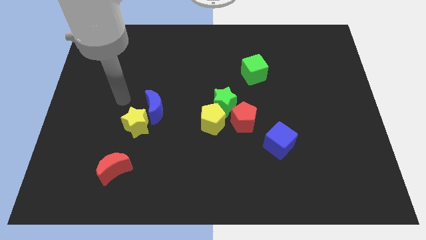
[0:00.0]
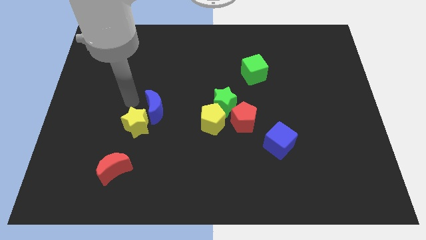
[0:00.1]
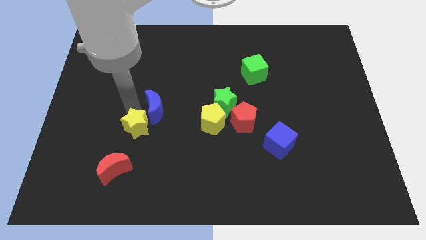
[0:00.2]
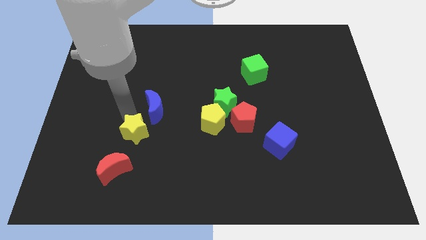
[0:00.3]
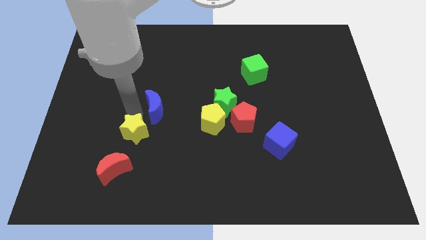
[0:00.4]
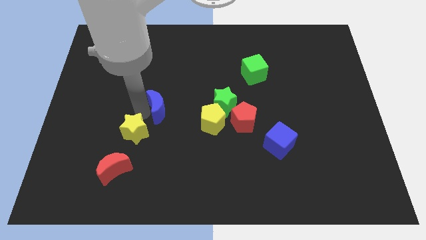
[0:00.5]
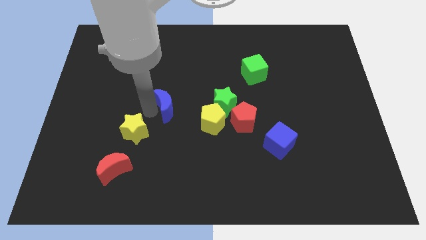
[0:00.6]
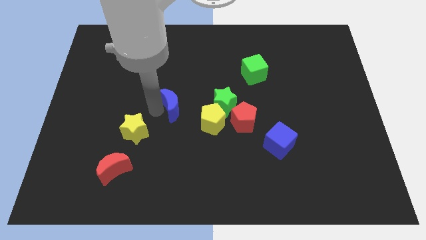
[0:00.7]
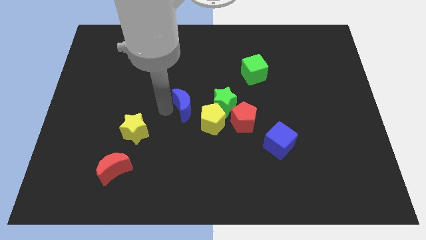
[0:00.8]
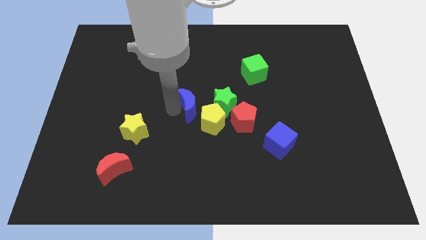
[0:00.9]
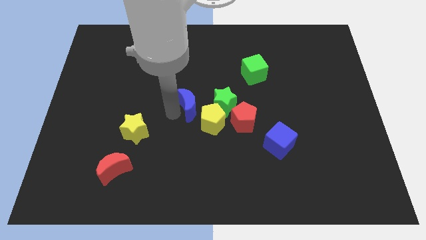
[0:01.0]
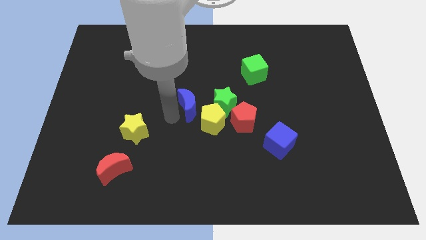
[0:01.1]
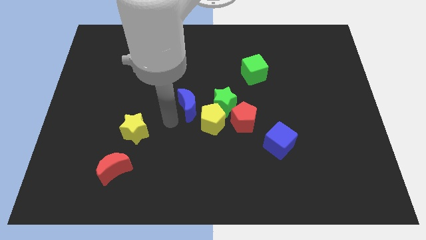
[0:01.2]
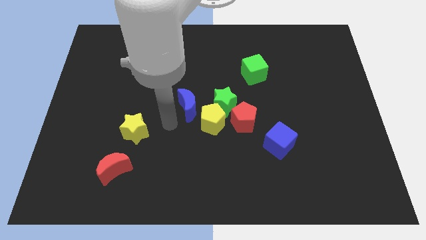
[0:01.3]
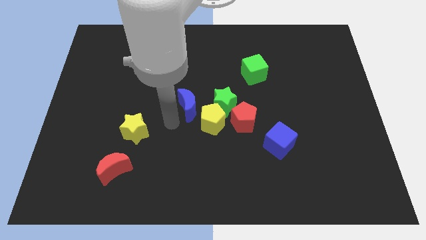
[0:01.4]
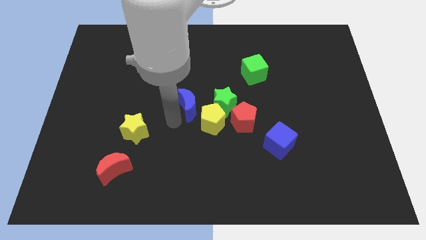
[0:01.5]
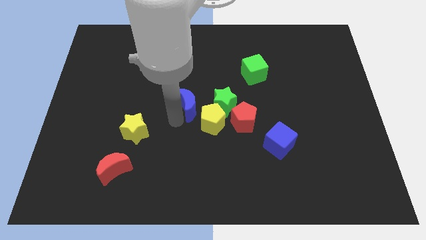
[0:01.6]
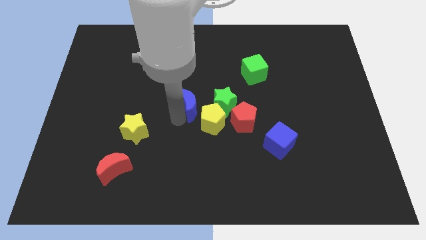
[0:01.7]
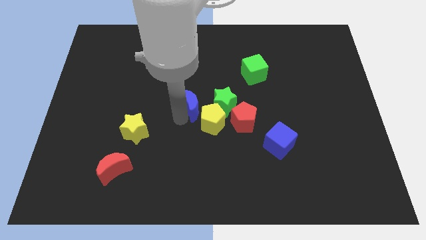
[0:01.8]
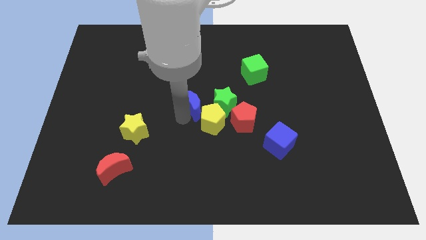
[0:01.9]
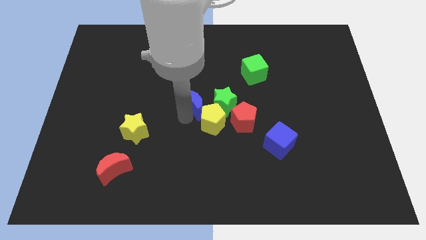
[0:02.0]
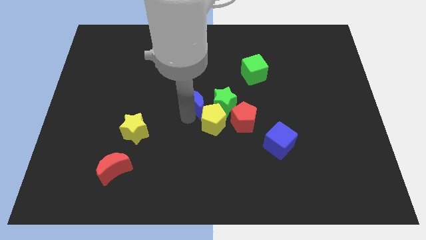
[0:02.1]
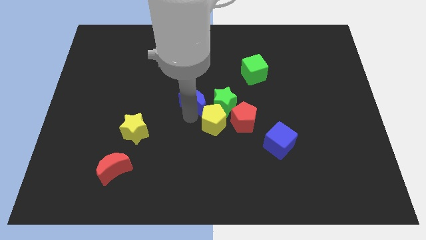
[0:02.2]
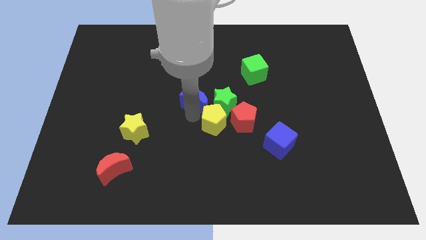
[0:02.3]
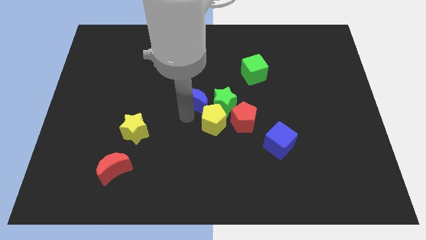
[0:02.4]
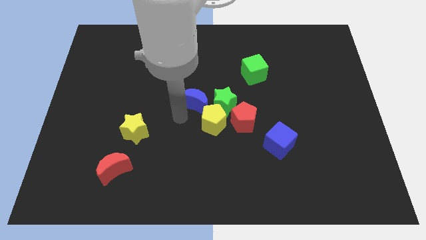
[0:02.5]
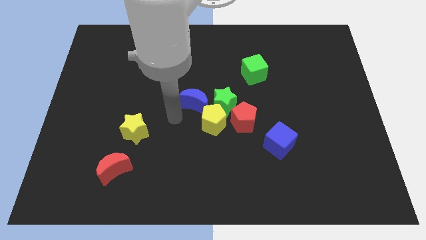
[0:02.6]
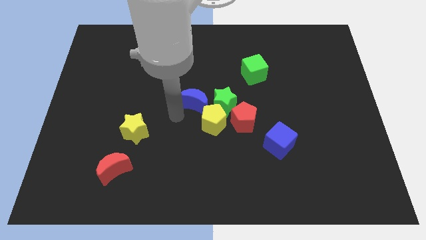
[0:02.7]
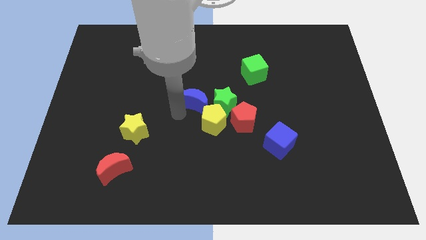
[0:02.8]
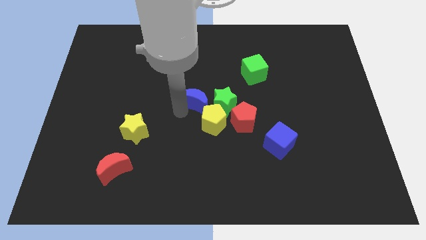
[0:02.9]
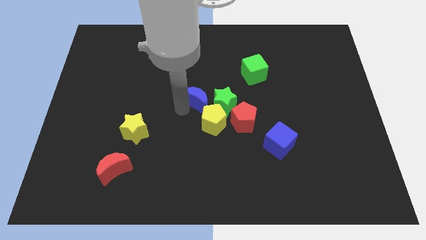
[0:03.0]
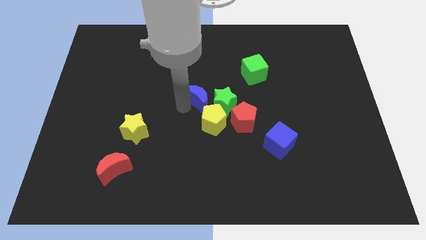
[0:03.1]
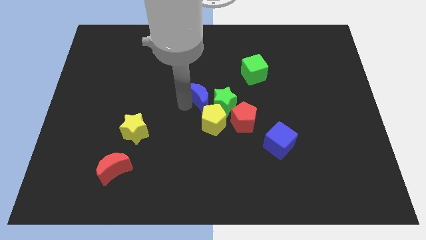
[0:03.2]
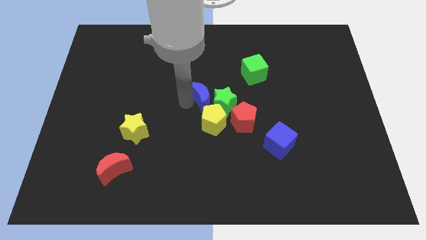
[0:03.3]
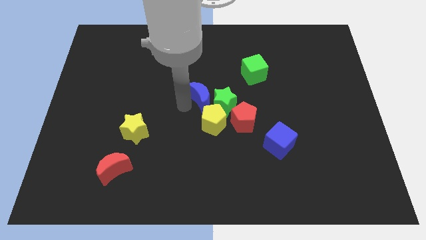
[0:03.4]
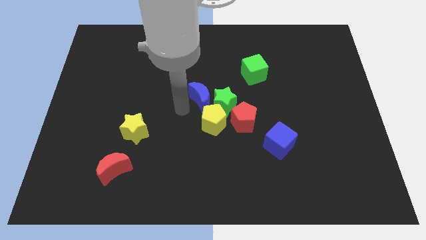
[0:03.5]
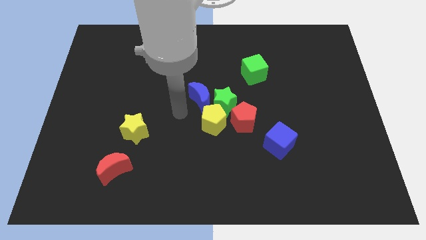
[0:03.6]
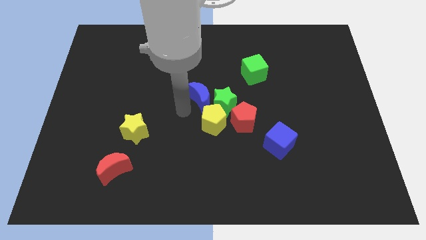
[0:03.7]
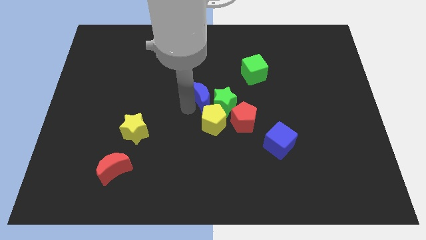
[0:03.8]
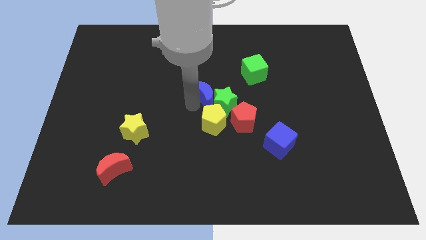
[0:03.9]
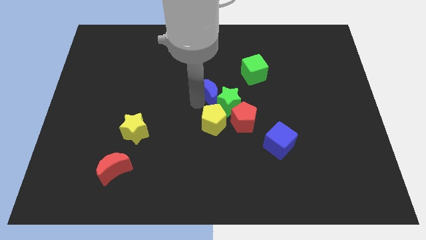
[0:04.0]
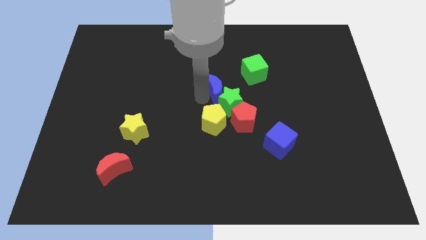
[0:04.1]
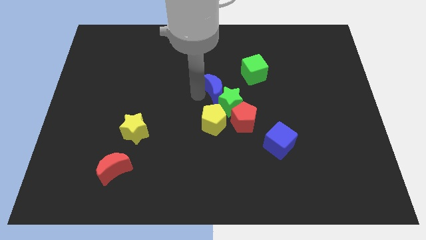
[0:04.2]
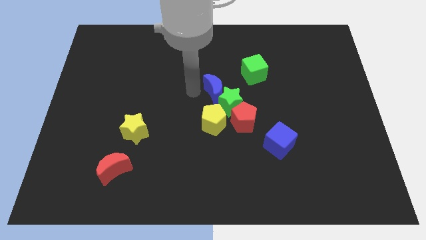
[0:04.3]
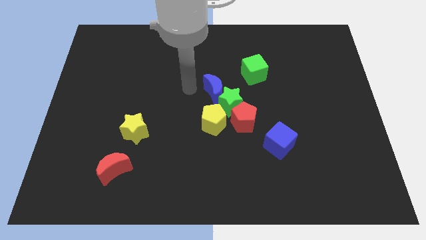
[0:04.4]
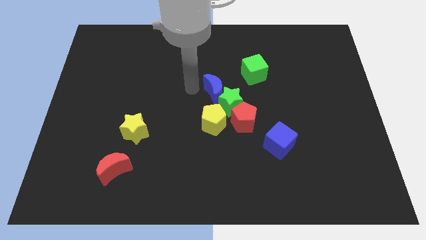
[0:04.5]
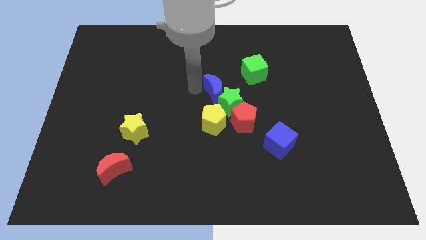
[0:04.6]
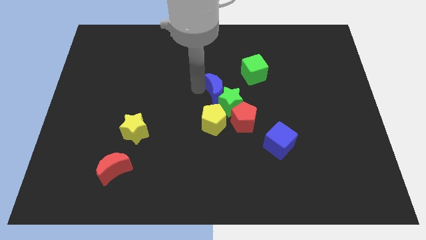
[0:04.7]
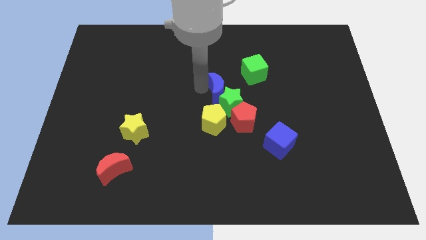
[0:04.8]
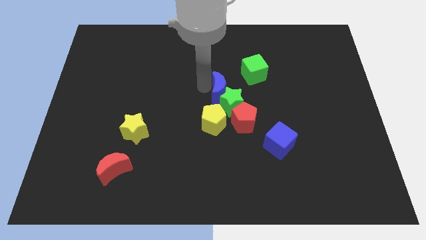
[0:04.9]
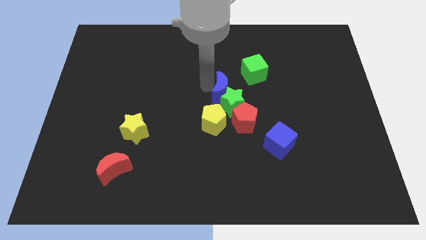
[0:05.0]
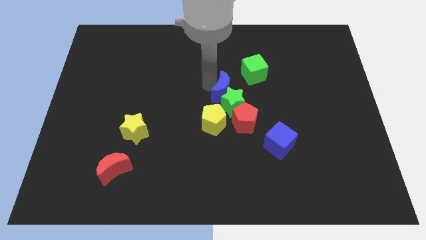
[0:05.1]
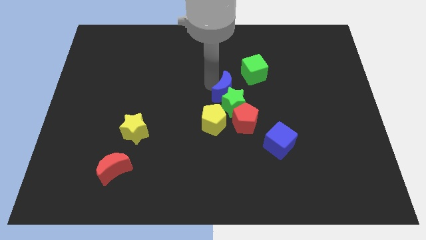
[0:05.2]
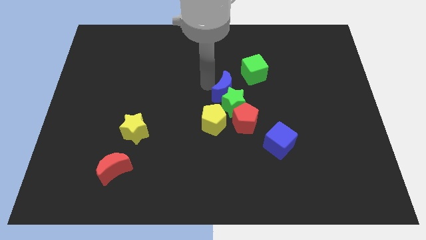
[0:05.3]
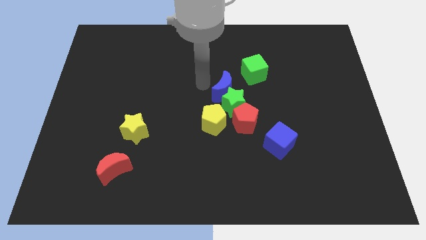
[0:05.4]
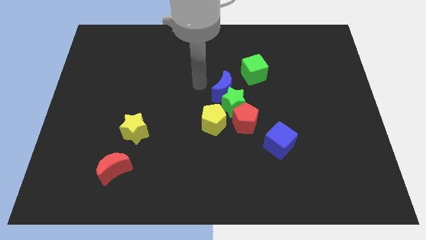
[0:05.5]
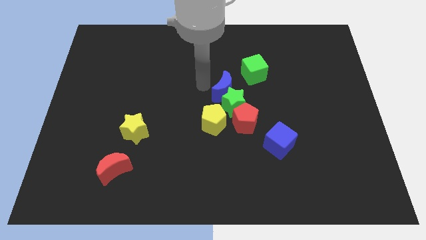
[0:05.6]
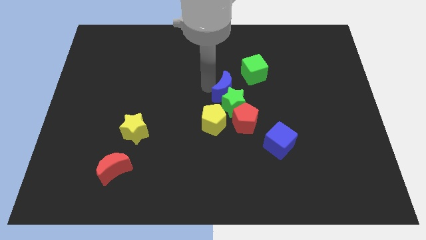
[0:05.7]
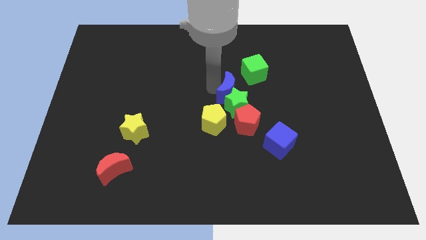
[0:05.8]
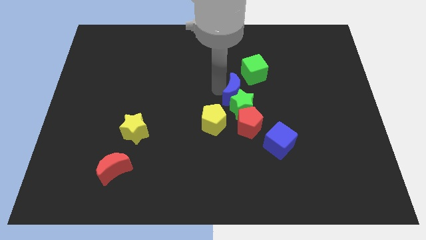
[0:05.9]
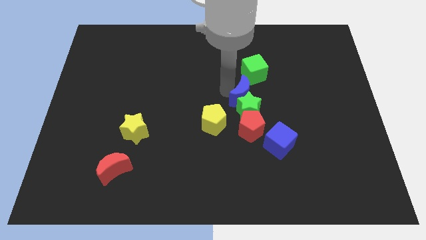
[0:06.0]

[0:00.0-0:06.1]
move the blue moon right

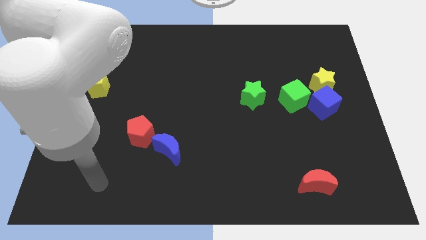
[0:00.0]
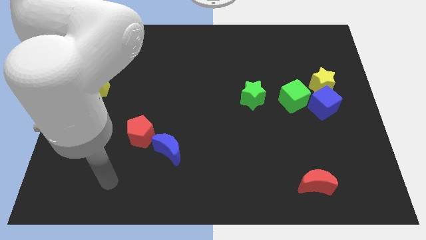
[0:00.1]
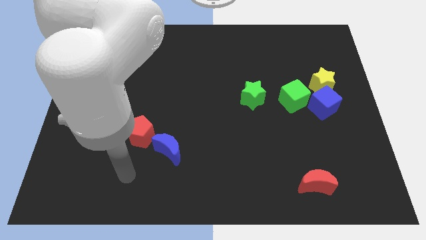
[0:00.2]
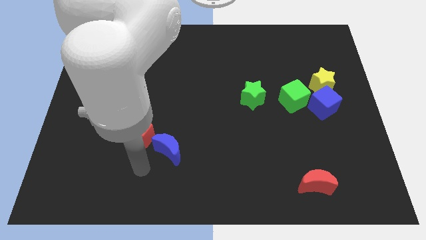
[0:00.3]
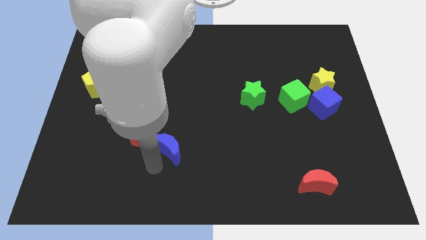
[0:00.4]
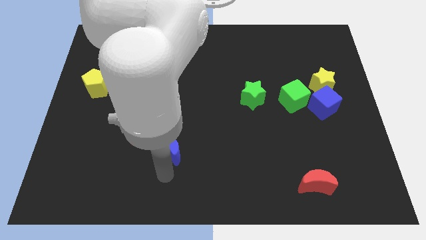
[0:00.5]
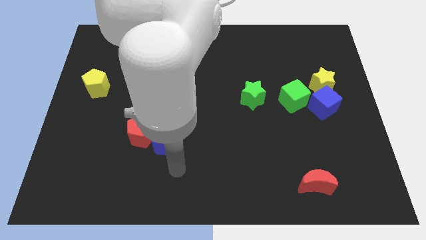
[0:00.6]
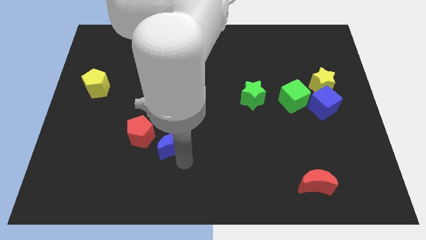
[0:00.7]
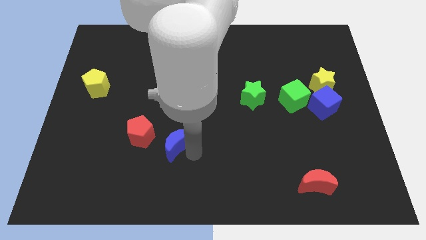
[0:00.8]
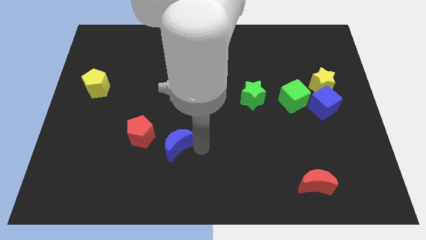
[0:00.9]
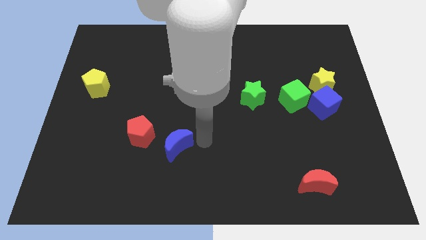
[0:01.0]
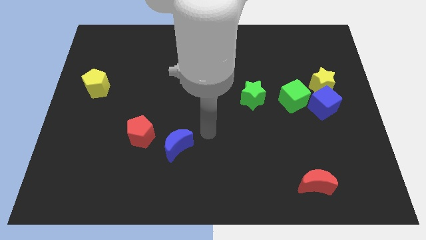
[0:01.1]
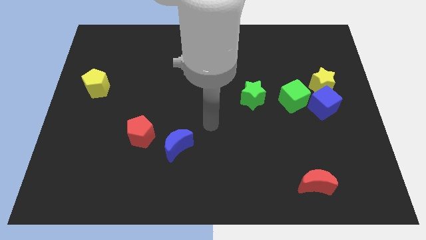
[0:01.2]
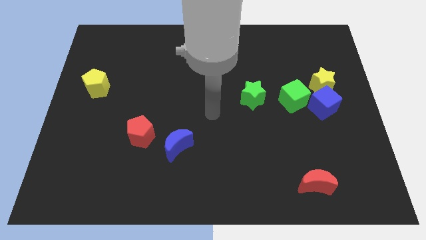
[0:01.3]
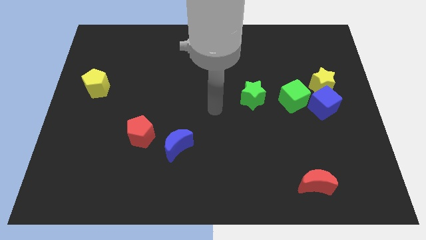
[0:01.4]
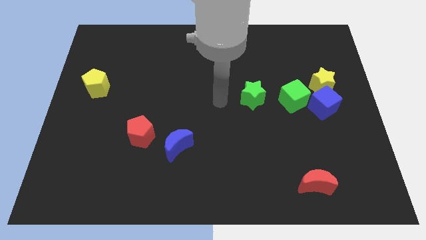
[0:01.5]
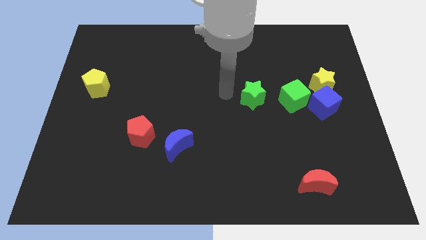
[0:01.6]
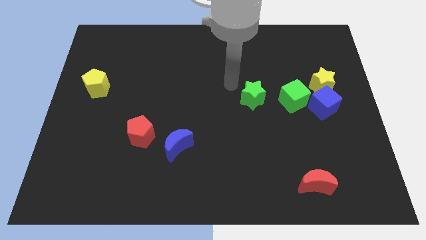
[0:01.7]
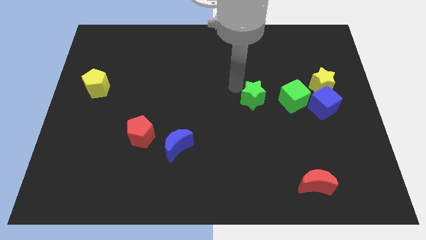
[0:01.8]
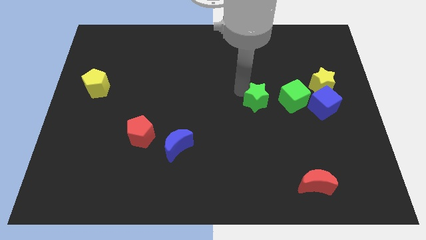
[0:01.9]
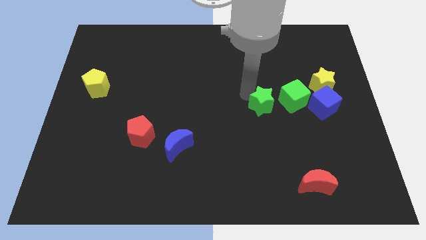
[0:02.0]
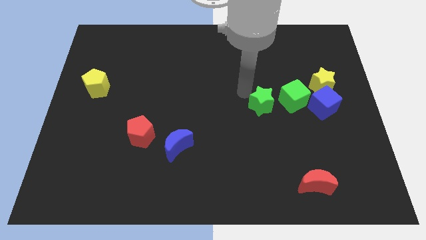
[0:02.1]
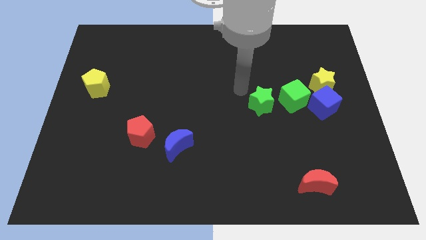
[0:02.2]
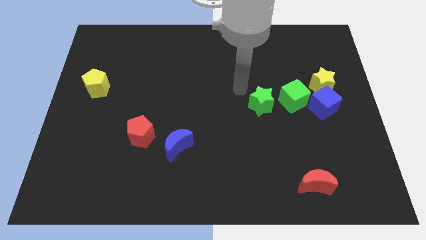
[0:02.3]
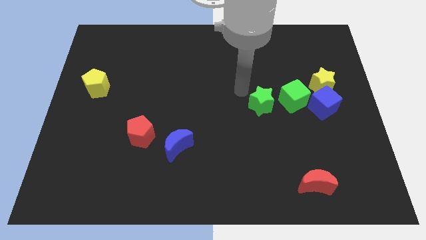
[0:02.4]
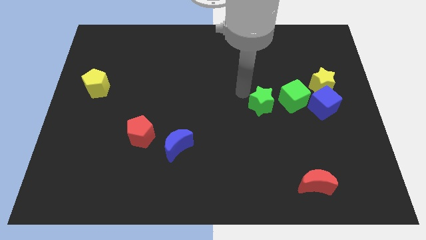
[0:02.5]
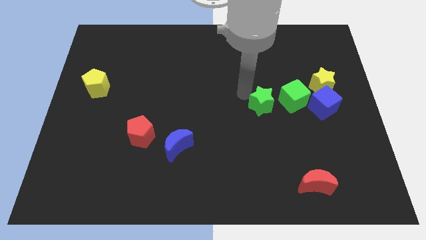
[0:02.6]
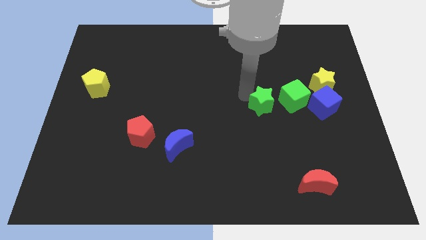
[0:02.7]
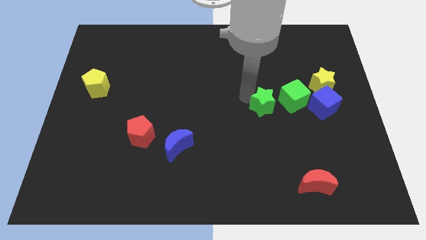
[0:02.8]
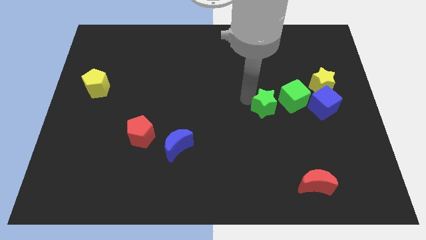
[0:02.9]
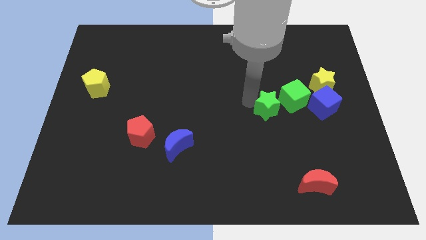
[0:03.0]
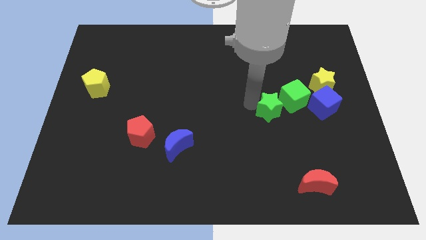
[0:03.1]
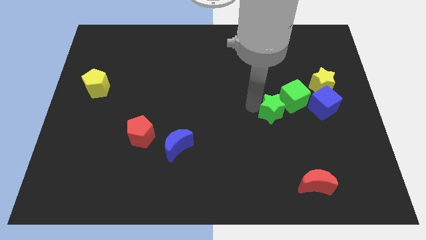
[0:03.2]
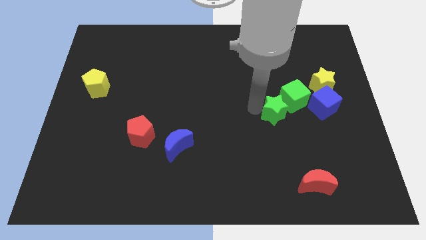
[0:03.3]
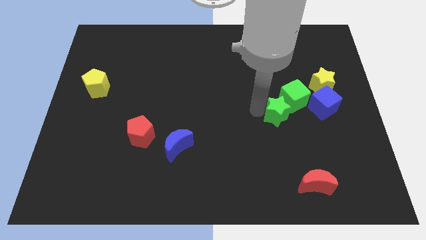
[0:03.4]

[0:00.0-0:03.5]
move the green star down and then to the right a bit
